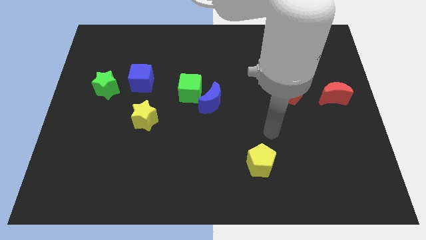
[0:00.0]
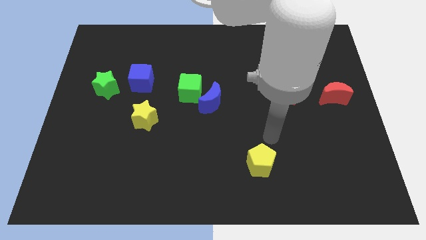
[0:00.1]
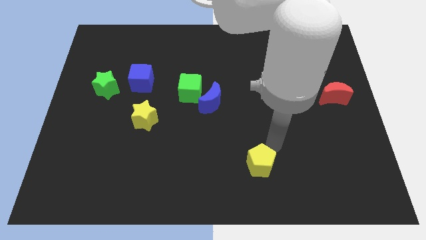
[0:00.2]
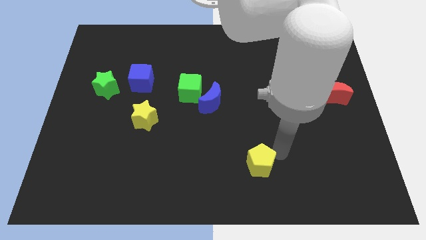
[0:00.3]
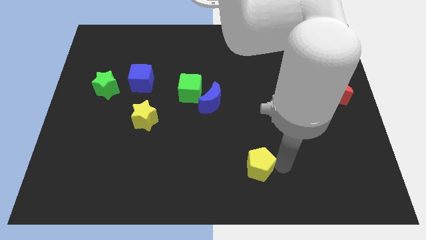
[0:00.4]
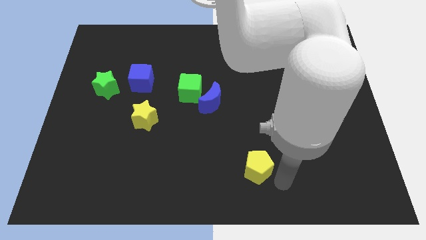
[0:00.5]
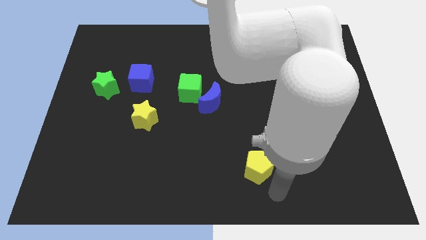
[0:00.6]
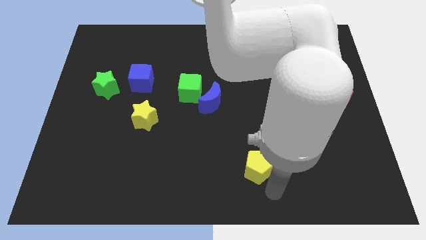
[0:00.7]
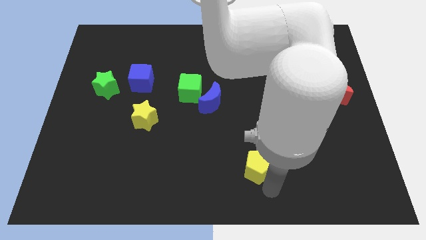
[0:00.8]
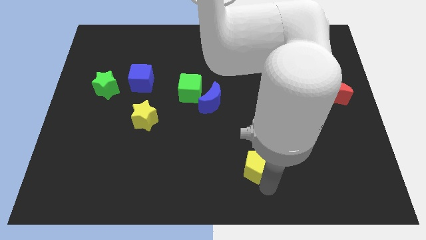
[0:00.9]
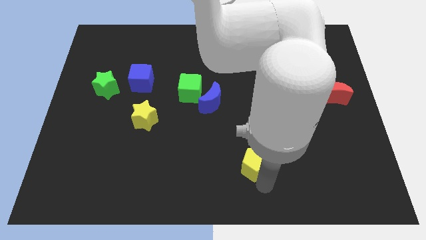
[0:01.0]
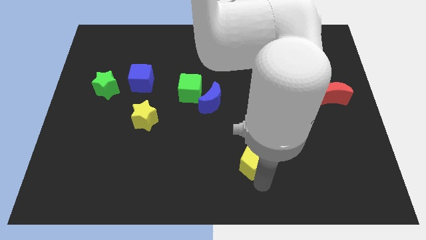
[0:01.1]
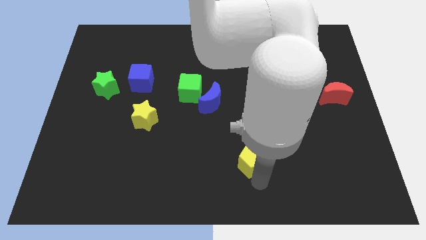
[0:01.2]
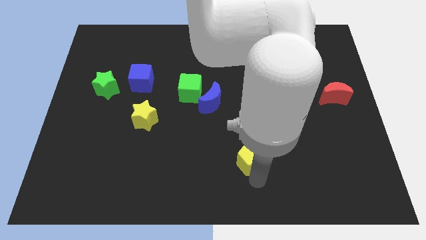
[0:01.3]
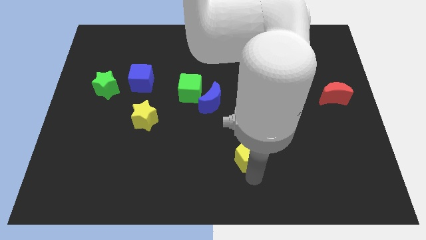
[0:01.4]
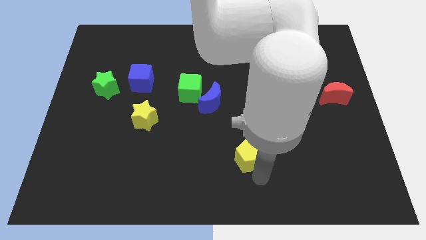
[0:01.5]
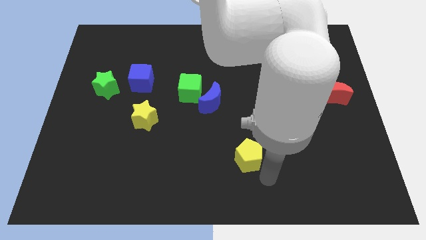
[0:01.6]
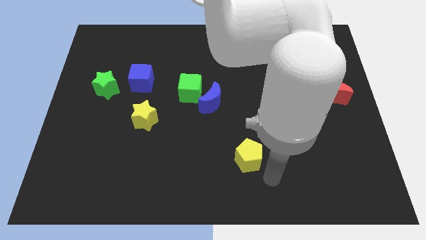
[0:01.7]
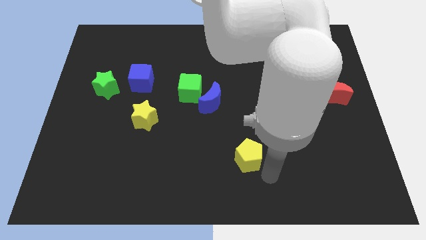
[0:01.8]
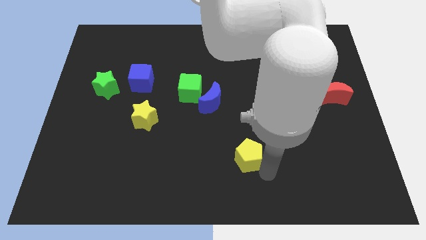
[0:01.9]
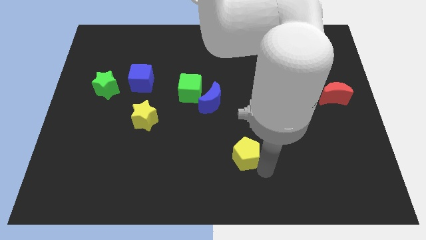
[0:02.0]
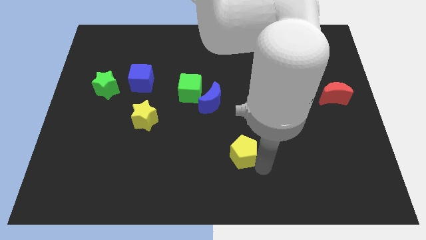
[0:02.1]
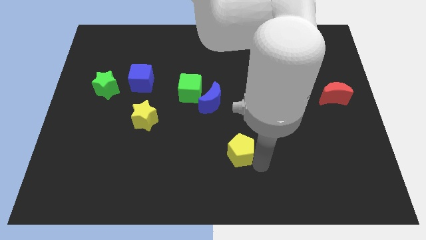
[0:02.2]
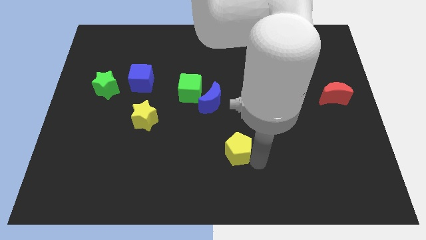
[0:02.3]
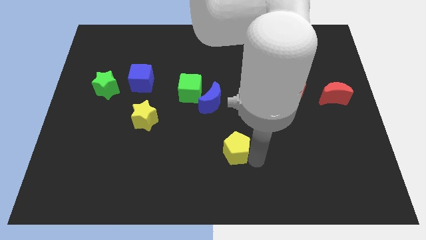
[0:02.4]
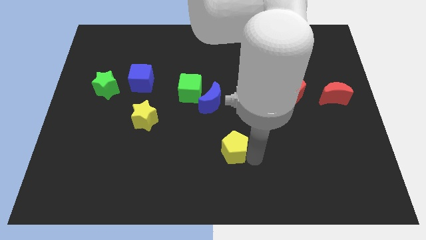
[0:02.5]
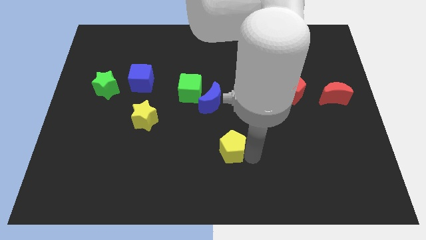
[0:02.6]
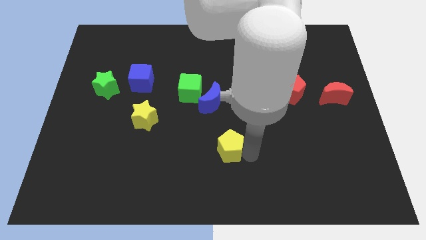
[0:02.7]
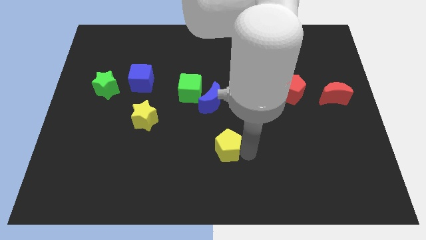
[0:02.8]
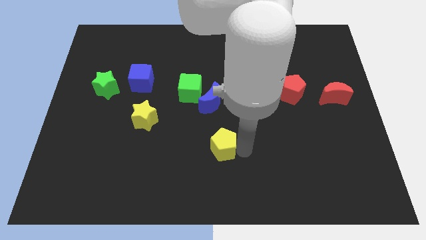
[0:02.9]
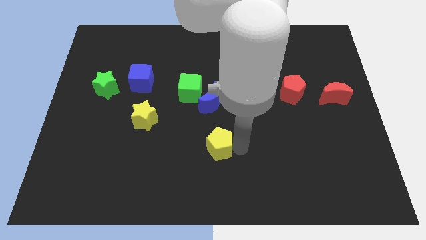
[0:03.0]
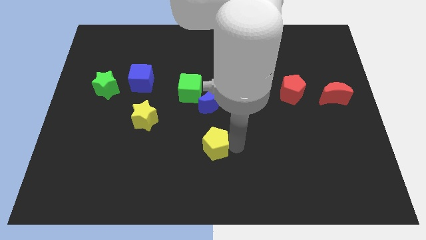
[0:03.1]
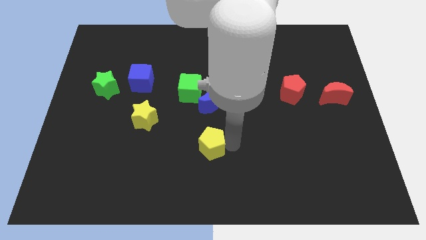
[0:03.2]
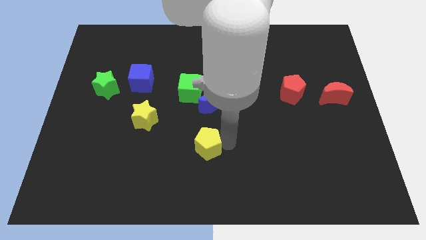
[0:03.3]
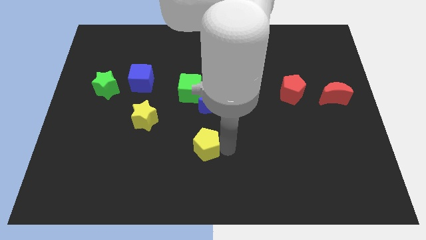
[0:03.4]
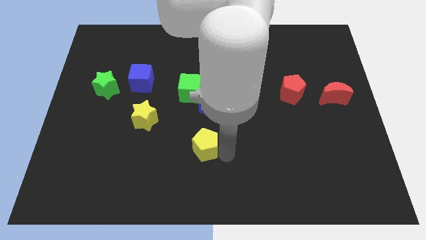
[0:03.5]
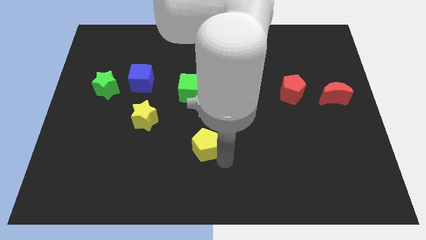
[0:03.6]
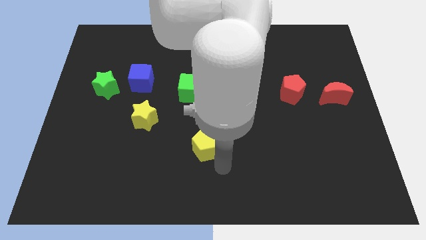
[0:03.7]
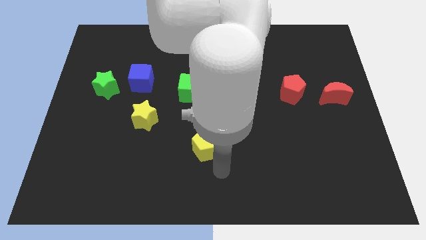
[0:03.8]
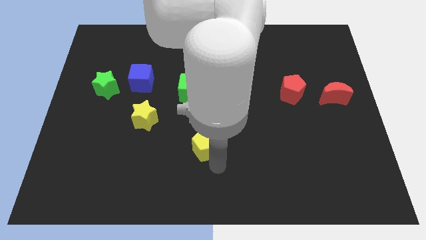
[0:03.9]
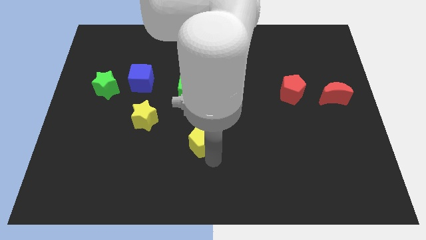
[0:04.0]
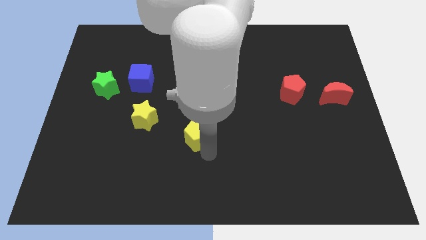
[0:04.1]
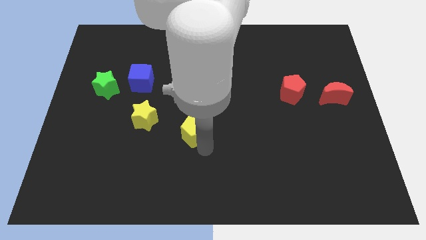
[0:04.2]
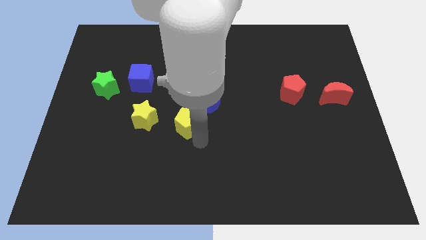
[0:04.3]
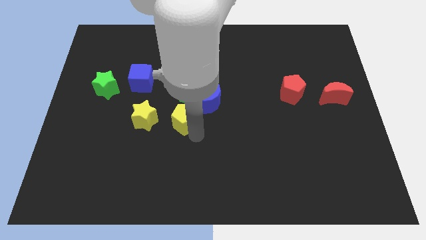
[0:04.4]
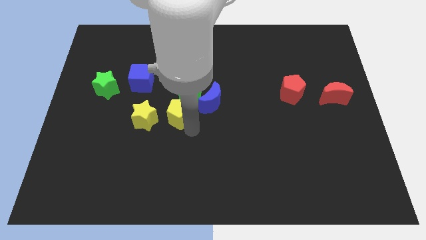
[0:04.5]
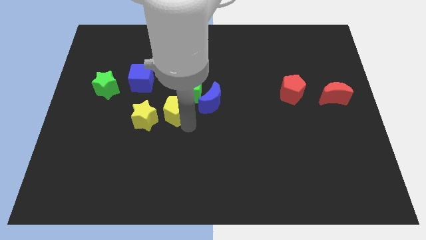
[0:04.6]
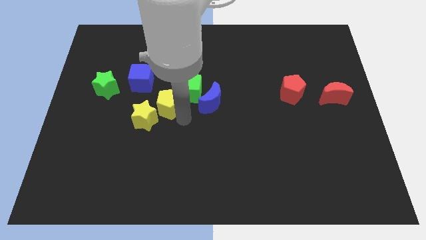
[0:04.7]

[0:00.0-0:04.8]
slide the yellow pentagon to the left of the green cube

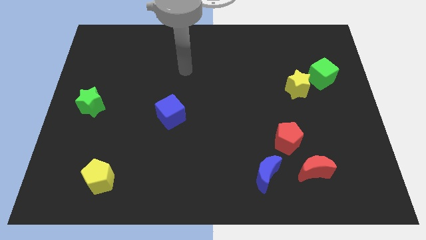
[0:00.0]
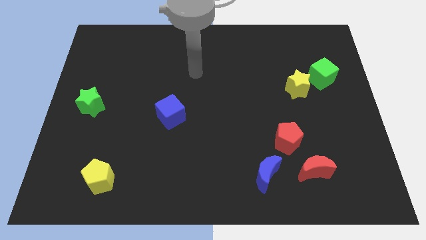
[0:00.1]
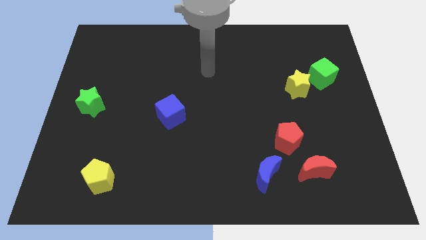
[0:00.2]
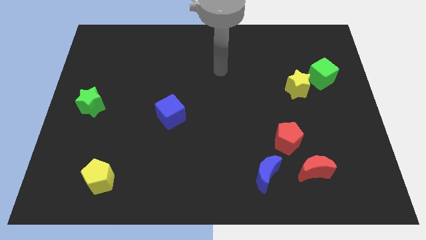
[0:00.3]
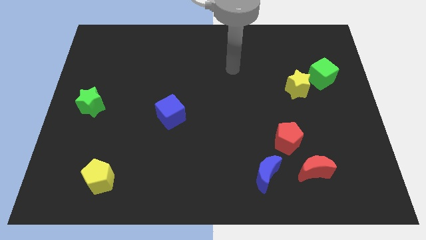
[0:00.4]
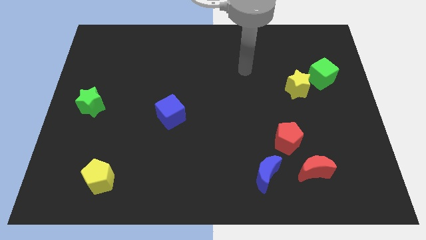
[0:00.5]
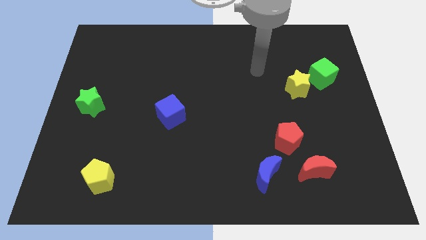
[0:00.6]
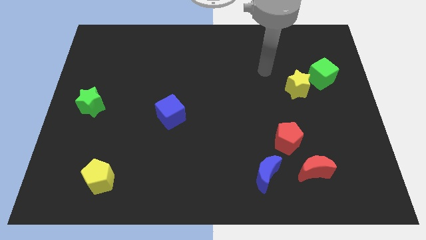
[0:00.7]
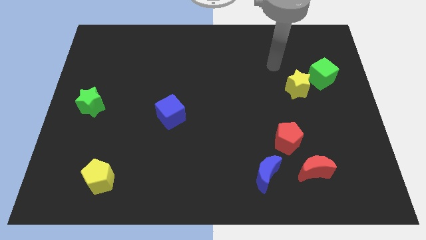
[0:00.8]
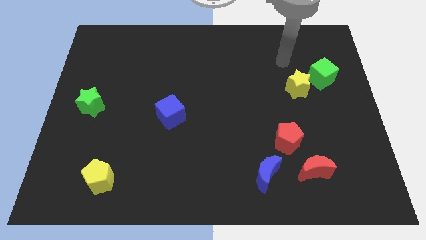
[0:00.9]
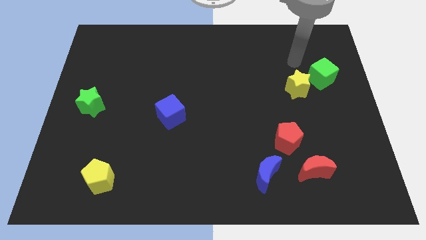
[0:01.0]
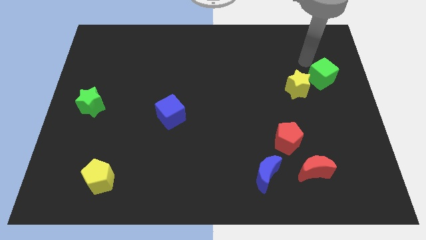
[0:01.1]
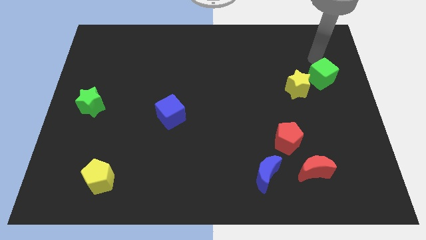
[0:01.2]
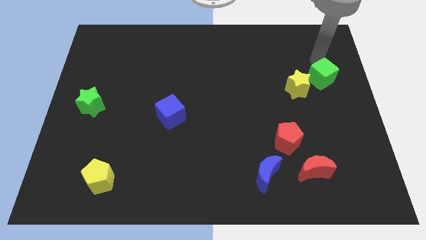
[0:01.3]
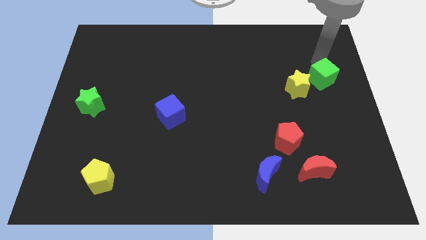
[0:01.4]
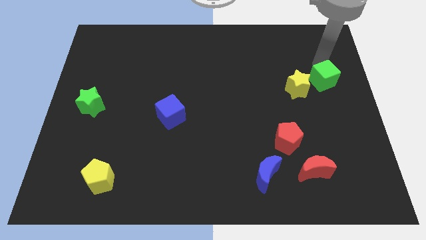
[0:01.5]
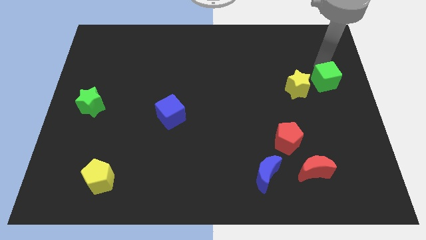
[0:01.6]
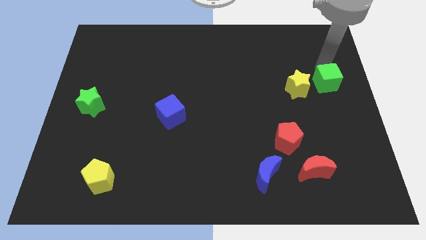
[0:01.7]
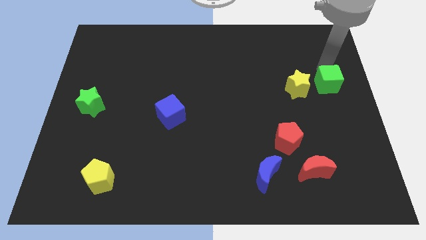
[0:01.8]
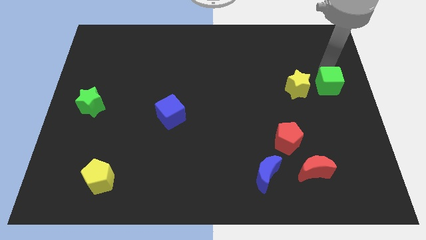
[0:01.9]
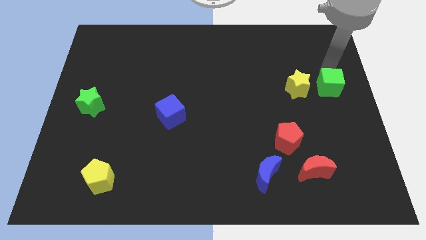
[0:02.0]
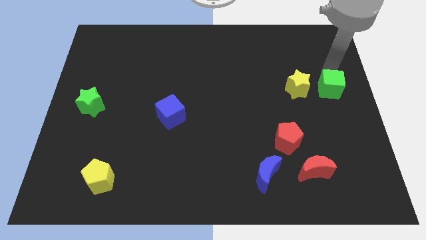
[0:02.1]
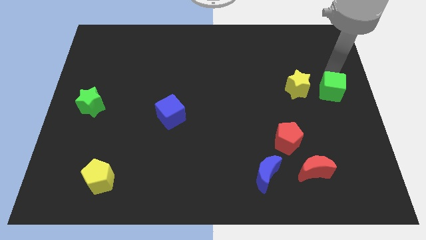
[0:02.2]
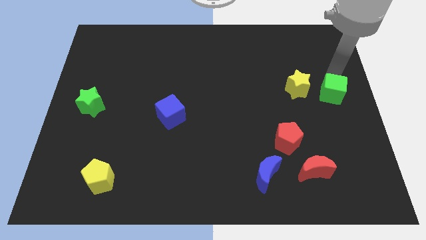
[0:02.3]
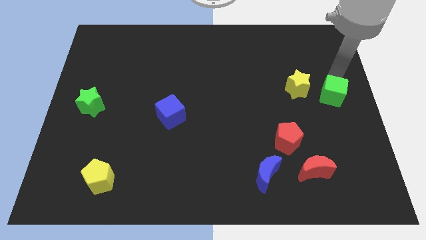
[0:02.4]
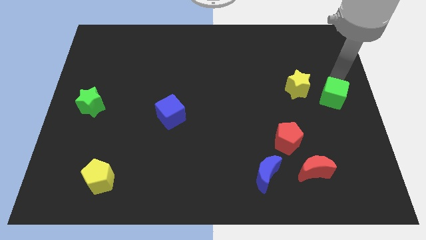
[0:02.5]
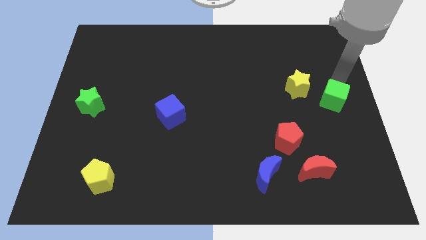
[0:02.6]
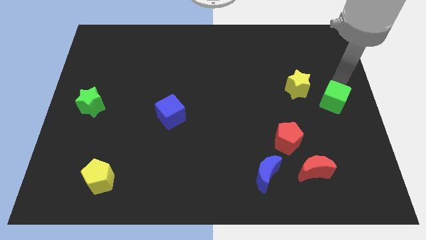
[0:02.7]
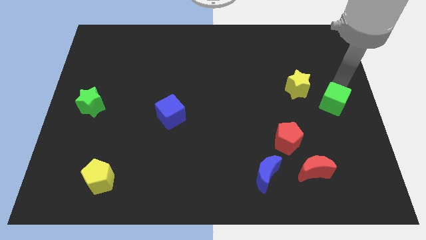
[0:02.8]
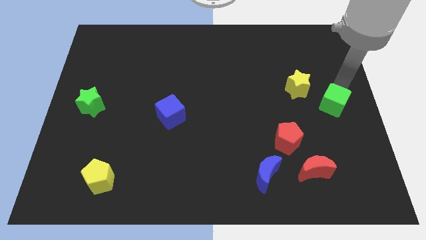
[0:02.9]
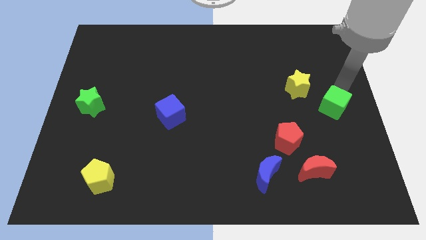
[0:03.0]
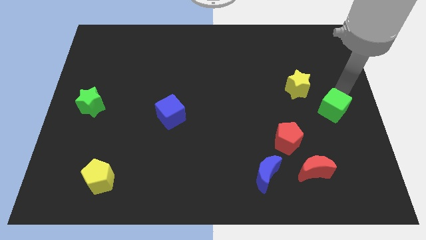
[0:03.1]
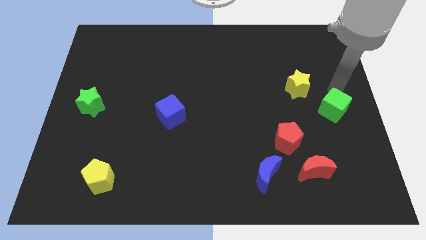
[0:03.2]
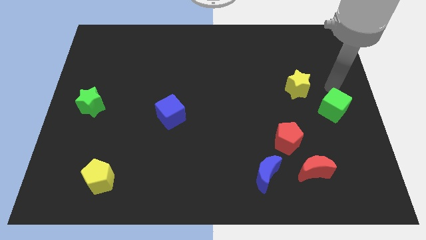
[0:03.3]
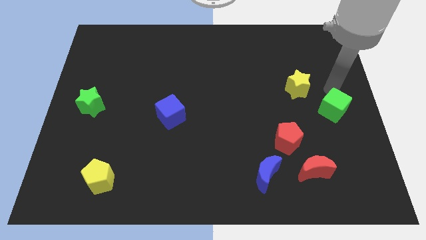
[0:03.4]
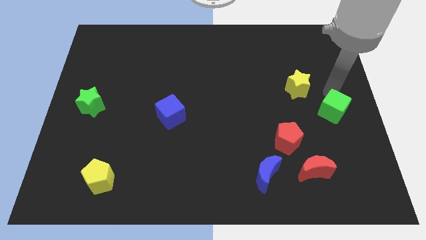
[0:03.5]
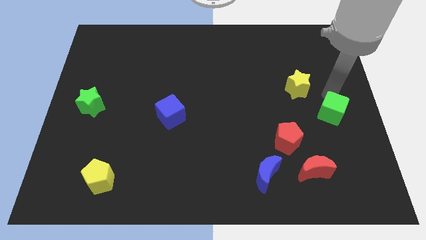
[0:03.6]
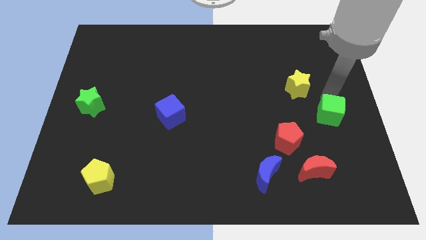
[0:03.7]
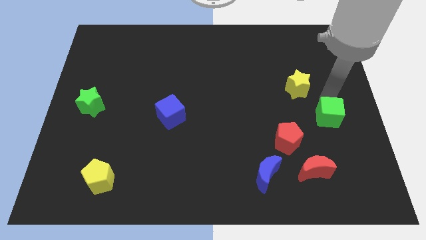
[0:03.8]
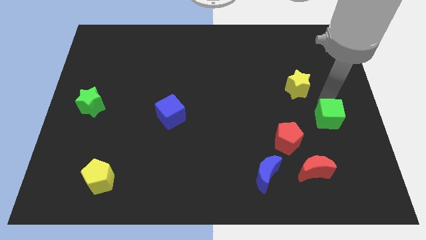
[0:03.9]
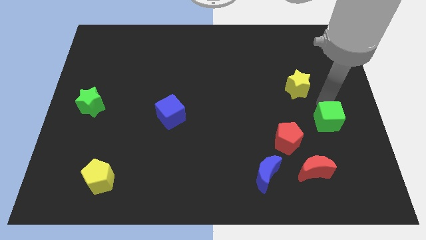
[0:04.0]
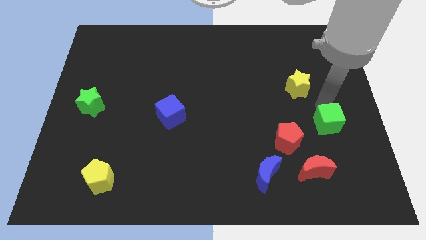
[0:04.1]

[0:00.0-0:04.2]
push the green cube just right of the red pentagon
